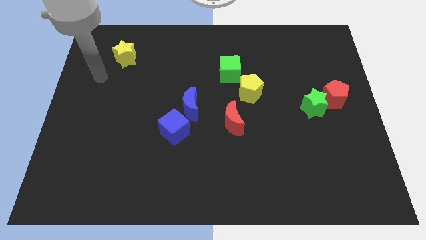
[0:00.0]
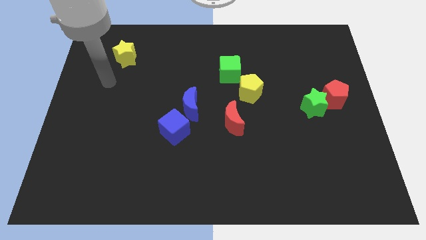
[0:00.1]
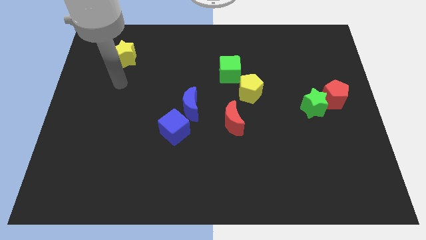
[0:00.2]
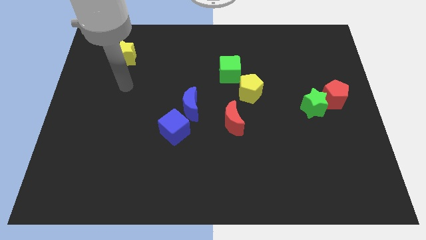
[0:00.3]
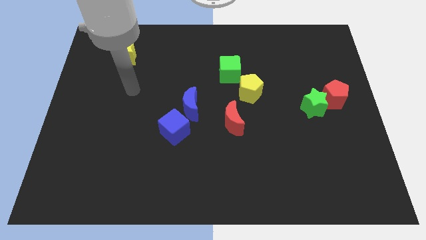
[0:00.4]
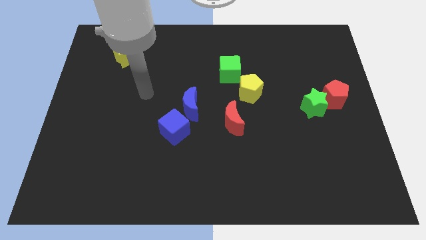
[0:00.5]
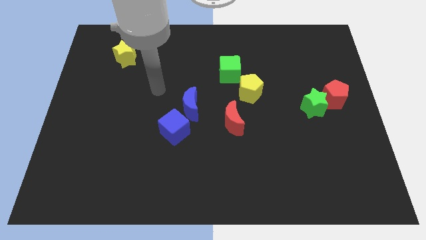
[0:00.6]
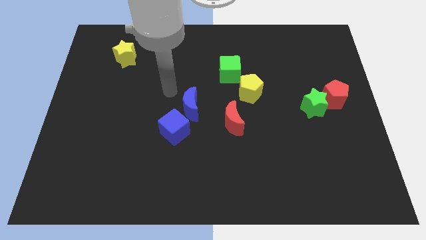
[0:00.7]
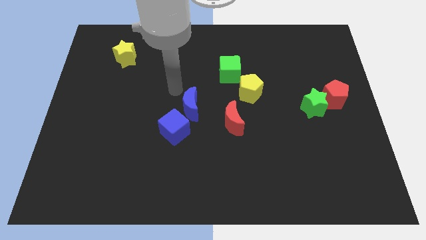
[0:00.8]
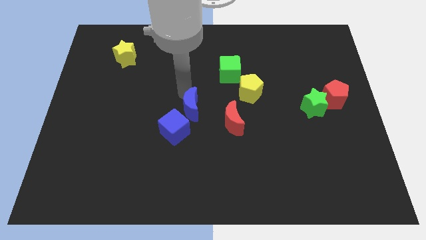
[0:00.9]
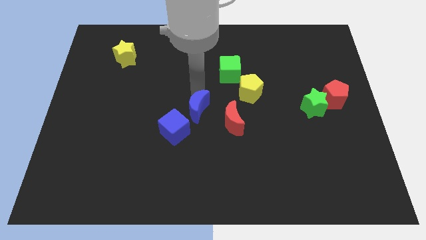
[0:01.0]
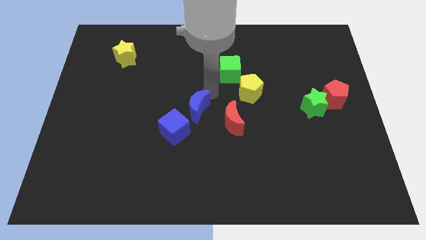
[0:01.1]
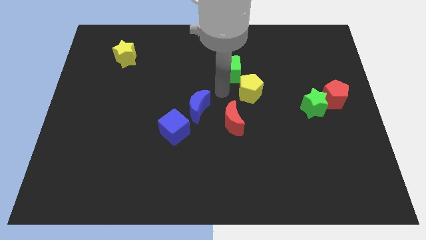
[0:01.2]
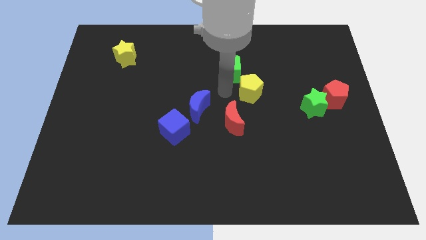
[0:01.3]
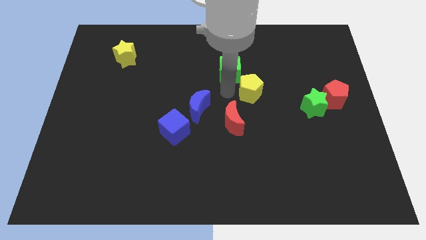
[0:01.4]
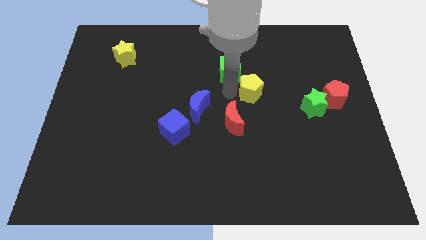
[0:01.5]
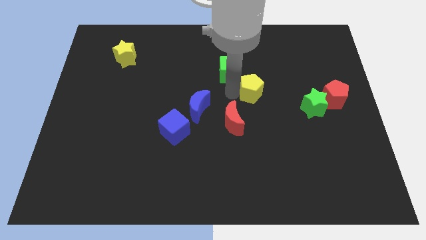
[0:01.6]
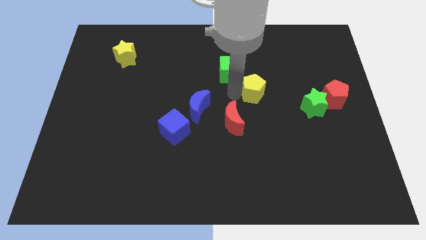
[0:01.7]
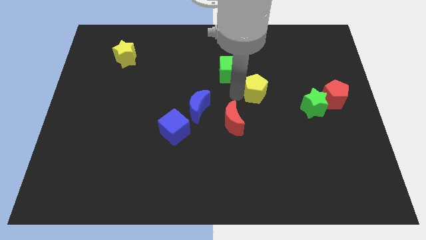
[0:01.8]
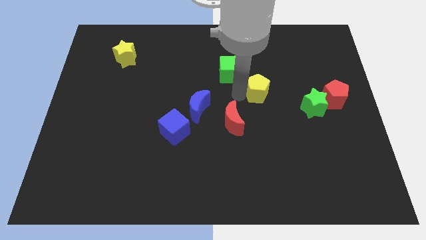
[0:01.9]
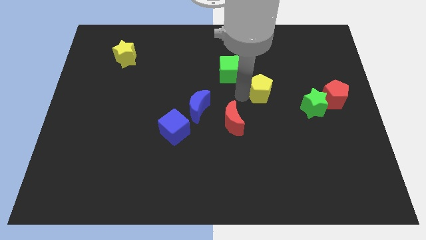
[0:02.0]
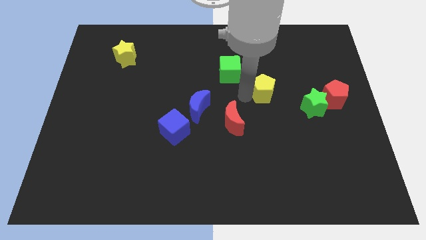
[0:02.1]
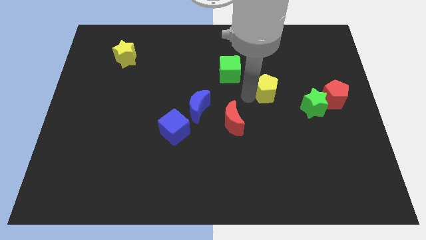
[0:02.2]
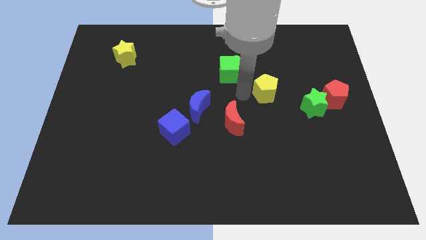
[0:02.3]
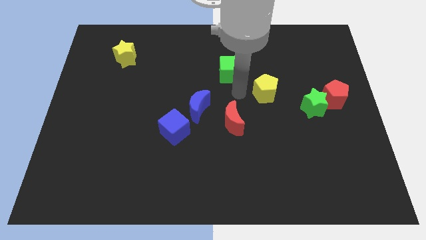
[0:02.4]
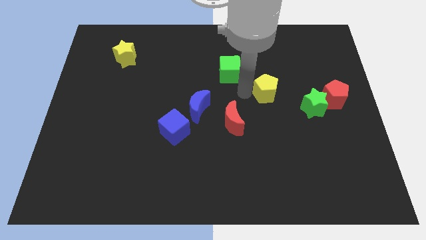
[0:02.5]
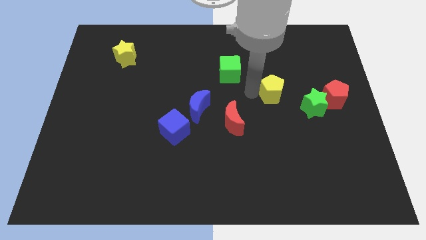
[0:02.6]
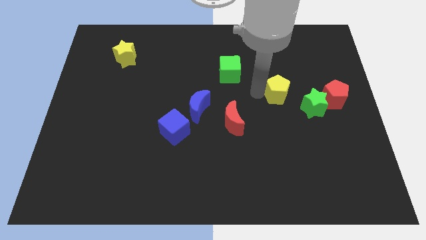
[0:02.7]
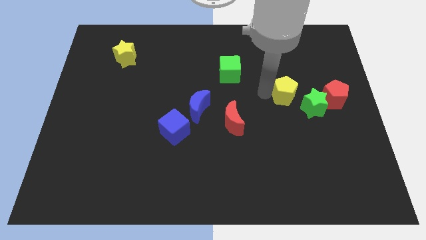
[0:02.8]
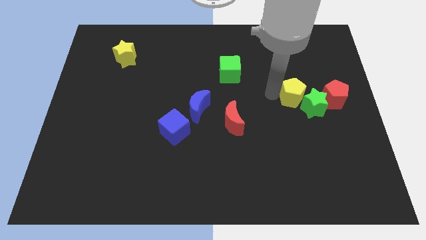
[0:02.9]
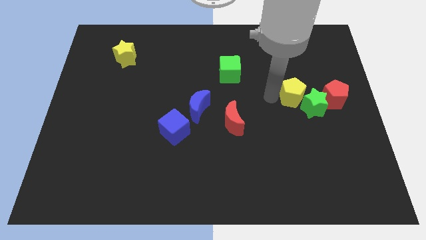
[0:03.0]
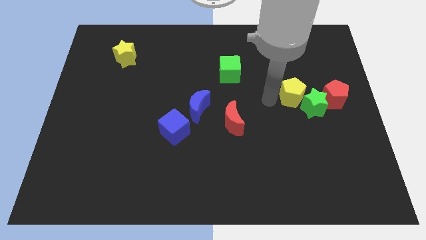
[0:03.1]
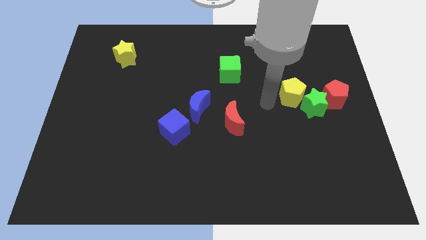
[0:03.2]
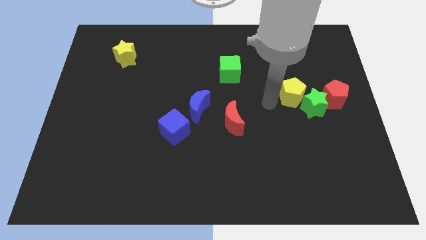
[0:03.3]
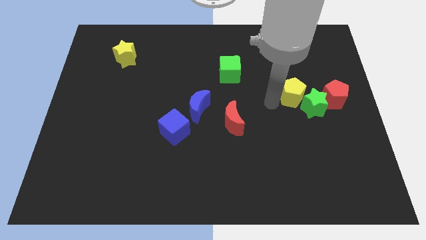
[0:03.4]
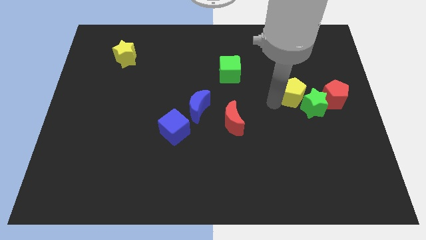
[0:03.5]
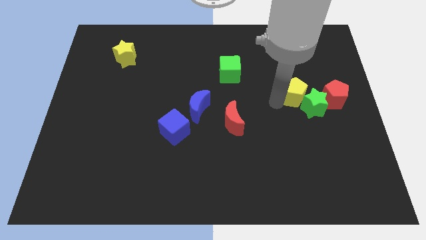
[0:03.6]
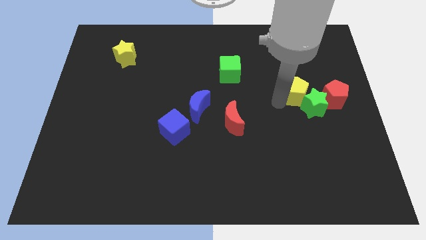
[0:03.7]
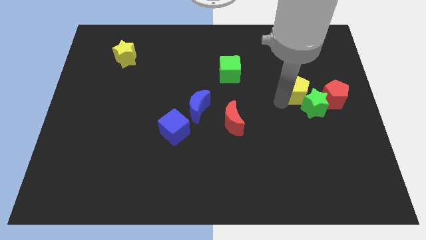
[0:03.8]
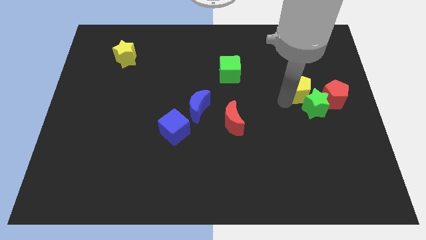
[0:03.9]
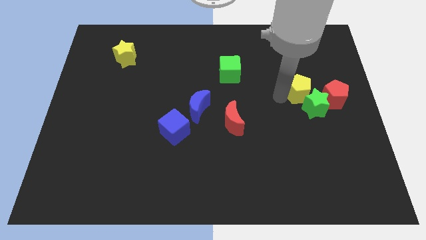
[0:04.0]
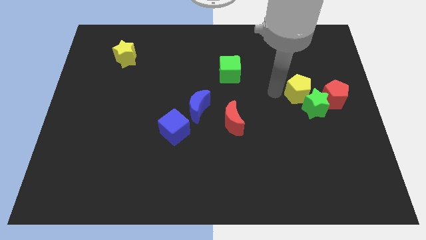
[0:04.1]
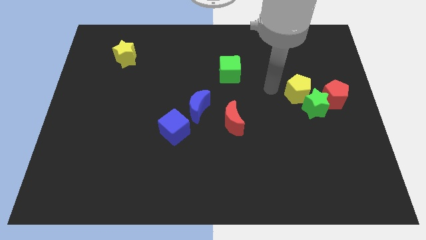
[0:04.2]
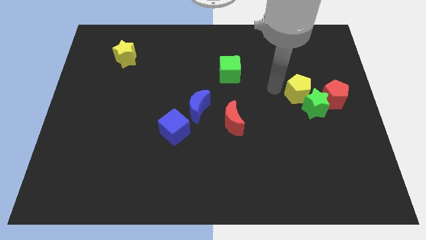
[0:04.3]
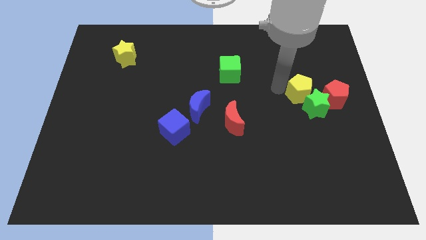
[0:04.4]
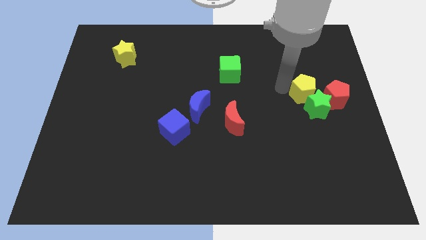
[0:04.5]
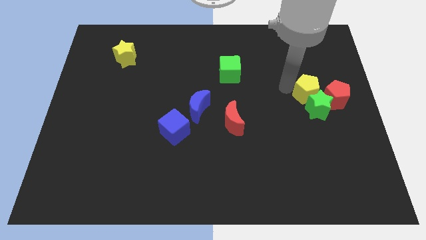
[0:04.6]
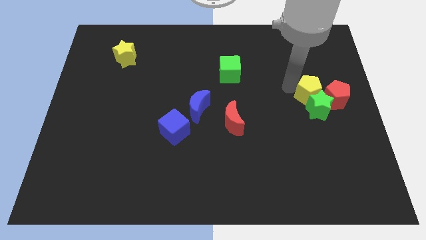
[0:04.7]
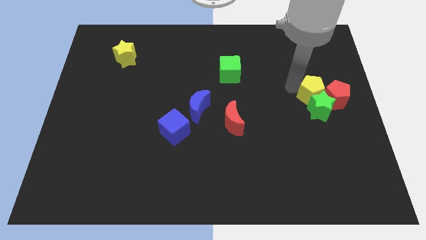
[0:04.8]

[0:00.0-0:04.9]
put the yellow pentagon next to the red pentagon

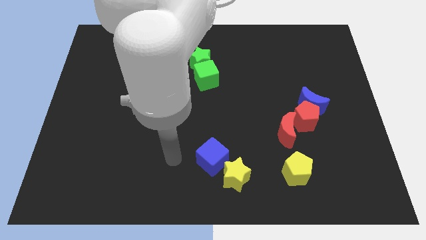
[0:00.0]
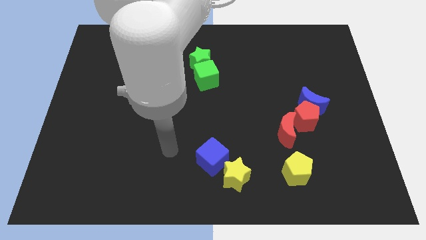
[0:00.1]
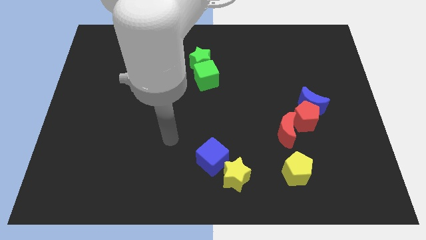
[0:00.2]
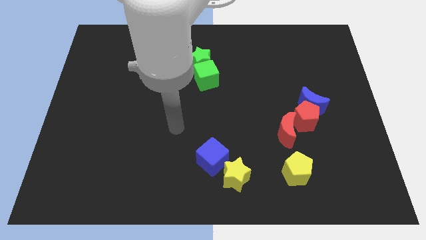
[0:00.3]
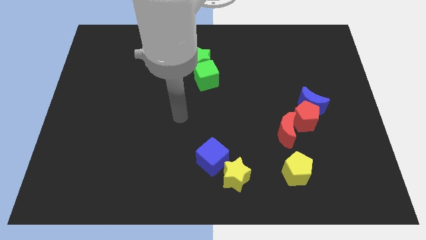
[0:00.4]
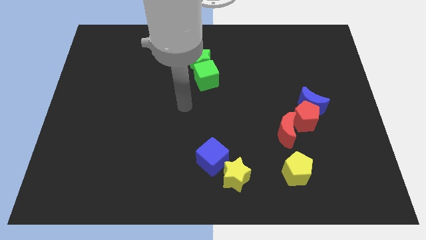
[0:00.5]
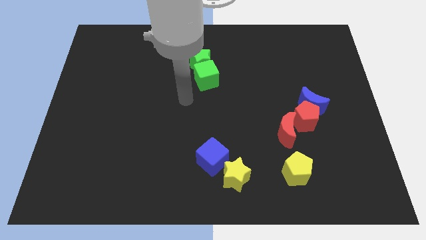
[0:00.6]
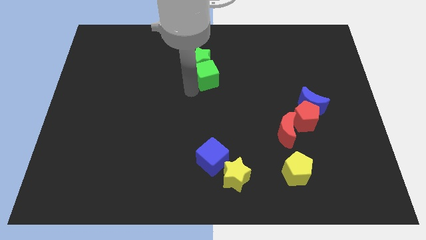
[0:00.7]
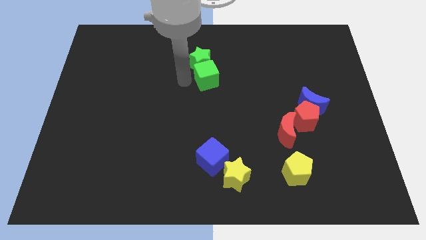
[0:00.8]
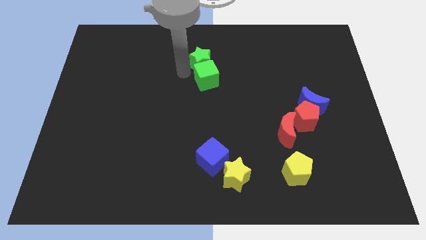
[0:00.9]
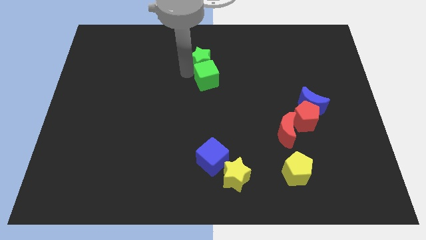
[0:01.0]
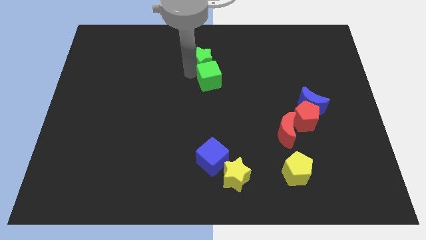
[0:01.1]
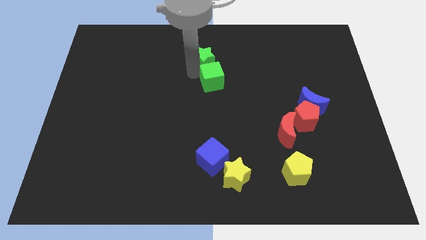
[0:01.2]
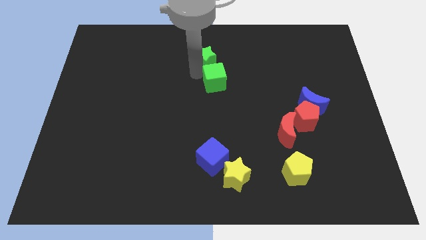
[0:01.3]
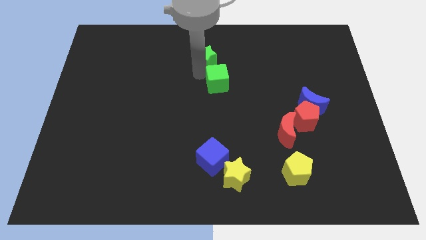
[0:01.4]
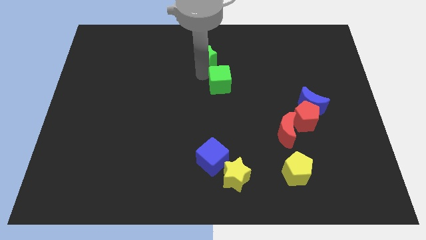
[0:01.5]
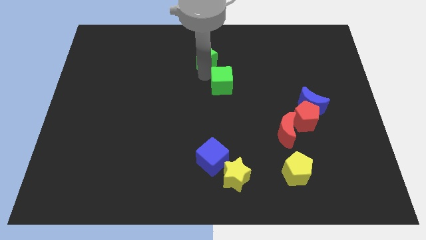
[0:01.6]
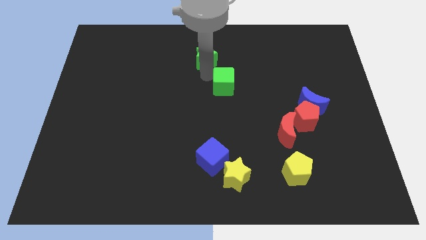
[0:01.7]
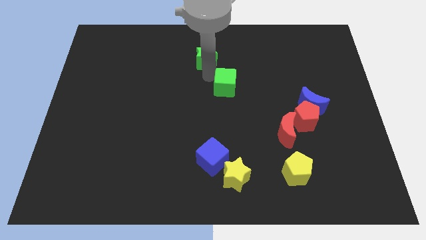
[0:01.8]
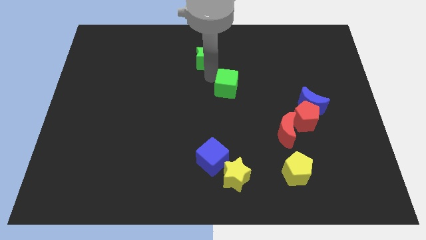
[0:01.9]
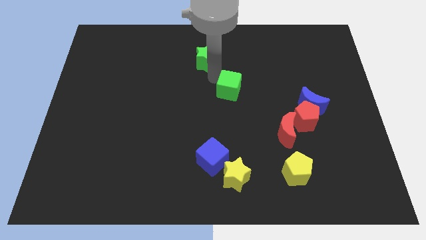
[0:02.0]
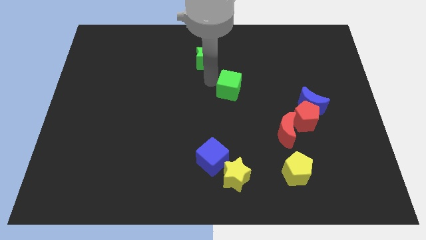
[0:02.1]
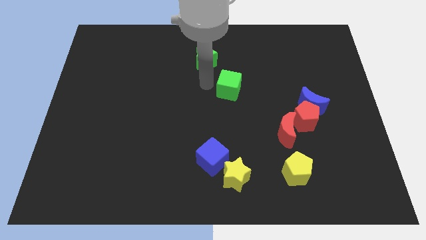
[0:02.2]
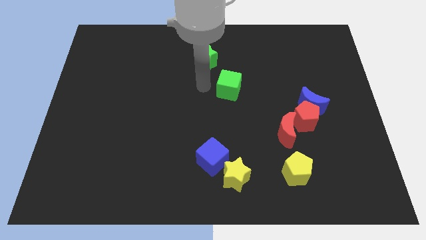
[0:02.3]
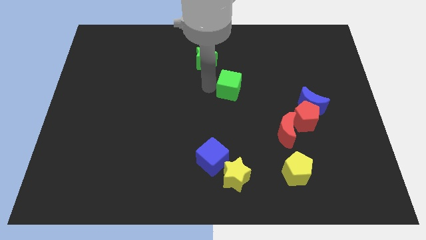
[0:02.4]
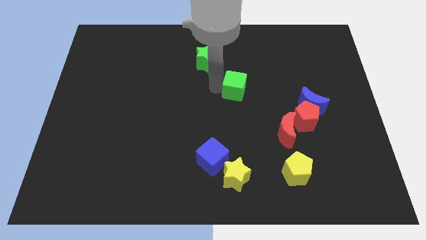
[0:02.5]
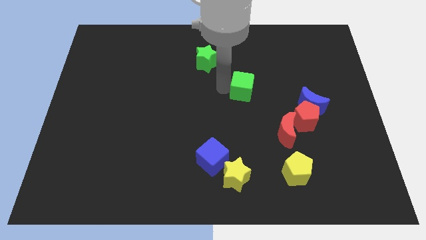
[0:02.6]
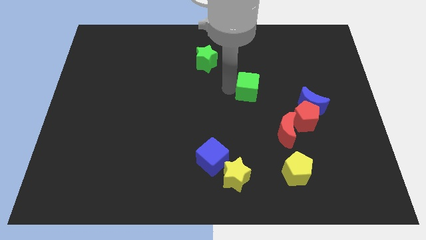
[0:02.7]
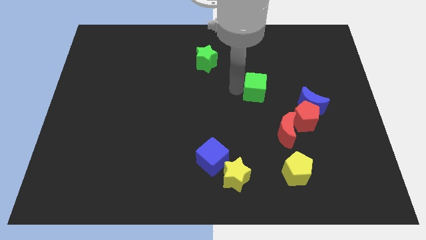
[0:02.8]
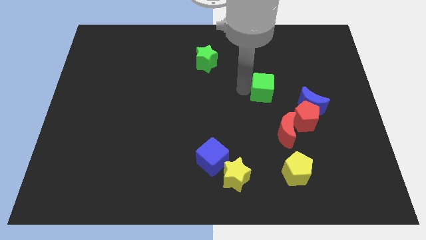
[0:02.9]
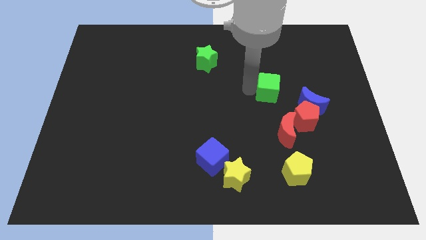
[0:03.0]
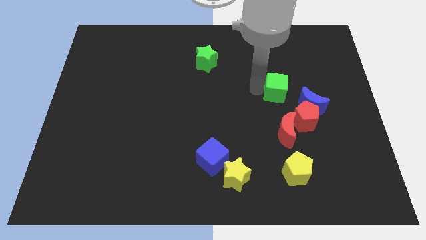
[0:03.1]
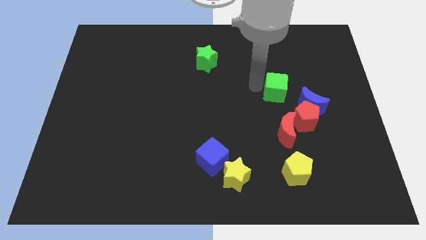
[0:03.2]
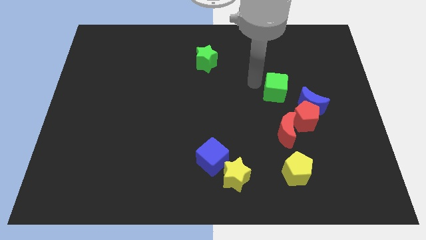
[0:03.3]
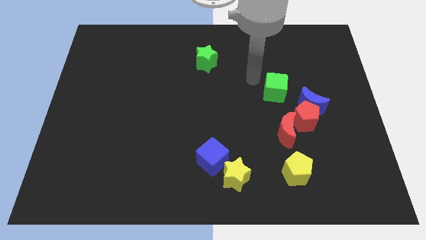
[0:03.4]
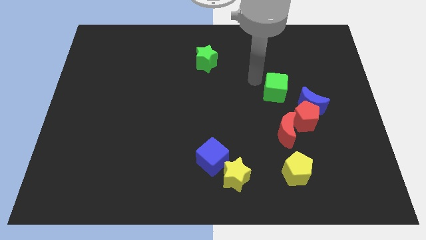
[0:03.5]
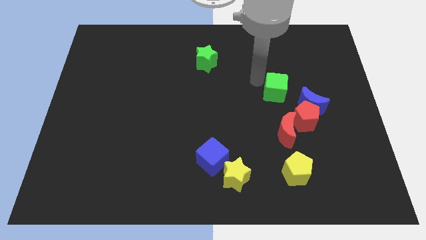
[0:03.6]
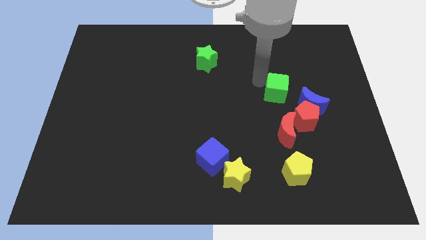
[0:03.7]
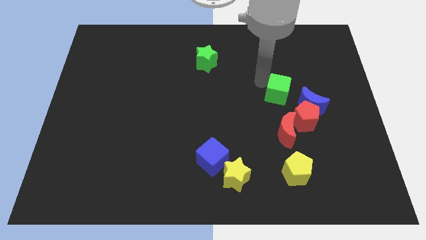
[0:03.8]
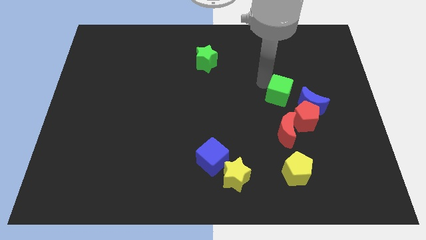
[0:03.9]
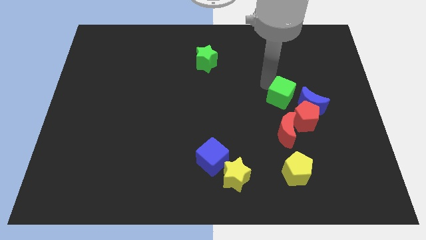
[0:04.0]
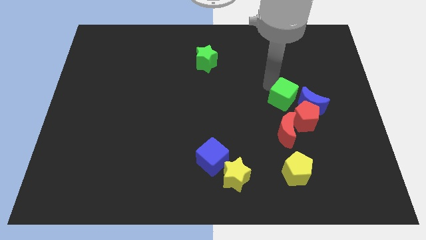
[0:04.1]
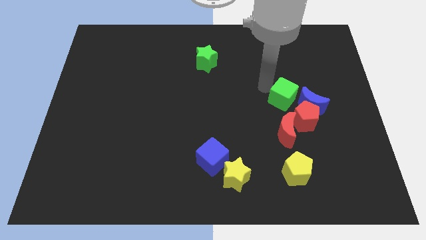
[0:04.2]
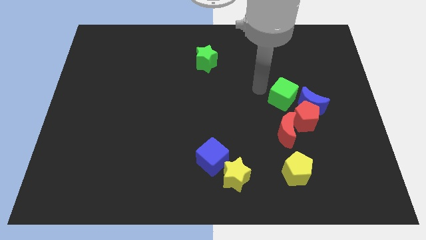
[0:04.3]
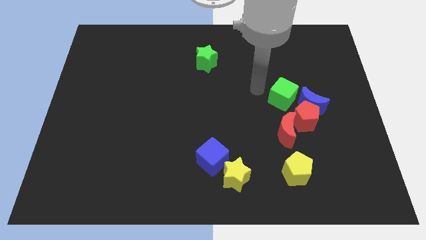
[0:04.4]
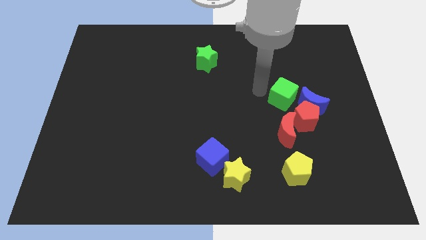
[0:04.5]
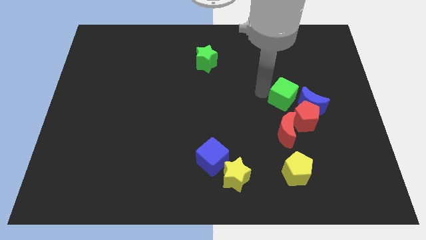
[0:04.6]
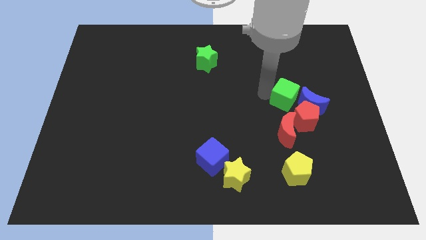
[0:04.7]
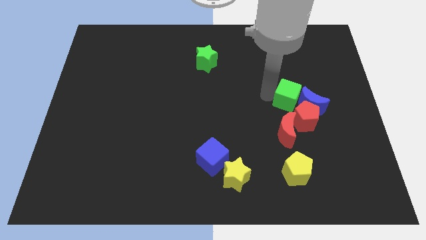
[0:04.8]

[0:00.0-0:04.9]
put the green cube towards the blue moon
